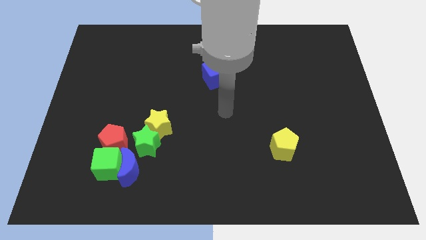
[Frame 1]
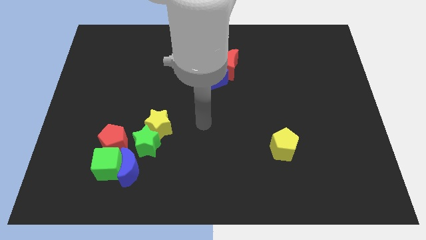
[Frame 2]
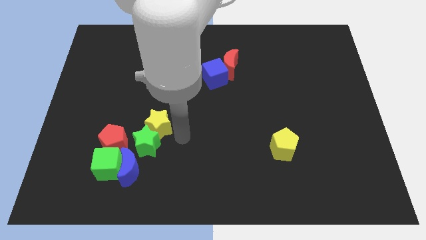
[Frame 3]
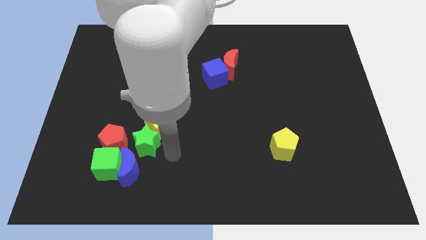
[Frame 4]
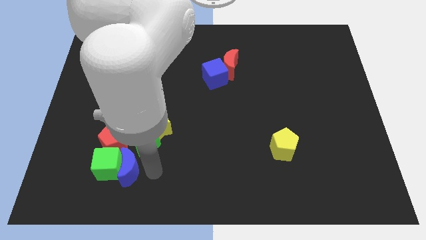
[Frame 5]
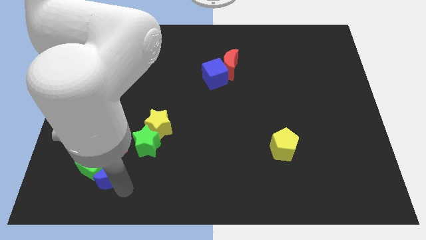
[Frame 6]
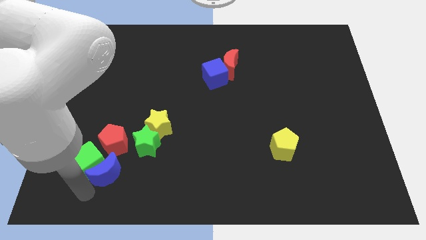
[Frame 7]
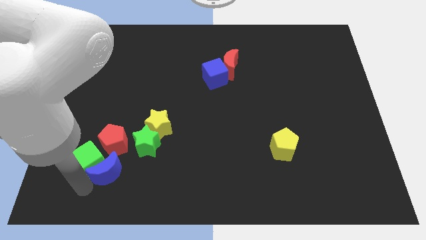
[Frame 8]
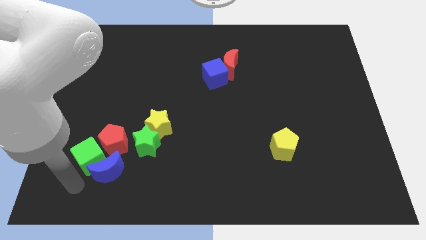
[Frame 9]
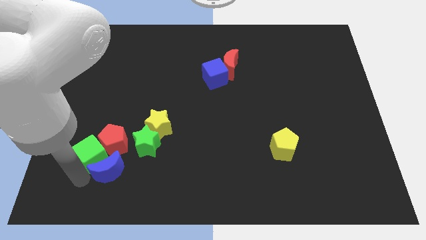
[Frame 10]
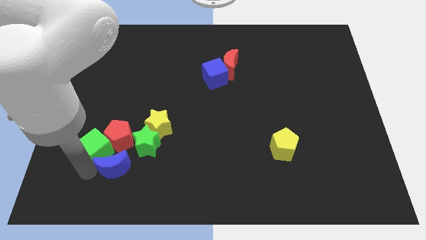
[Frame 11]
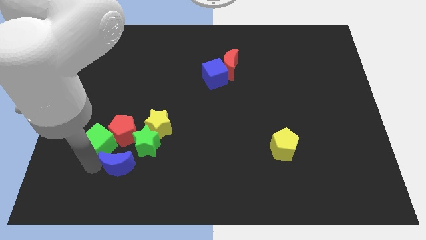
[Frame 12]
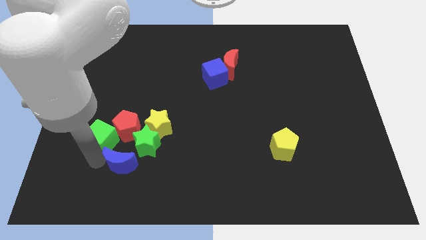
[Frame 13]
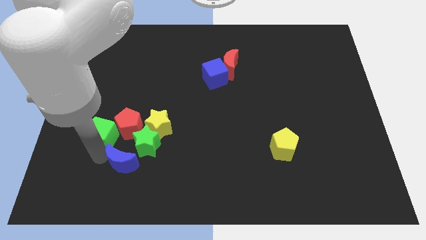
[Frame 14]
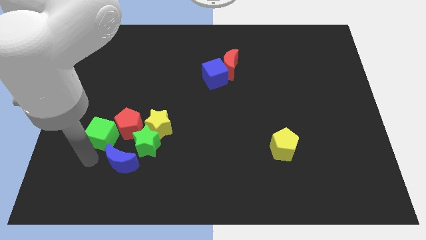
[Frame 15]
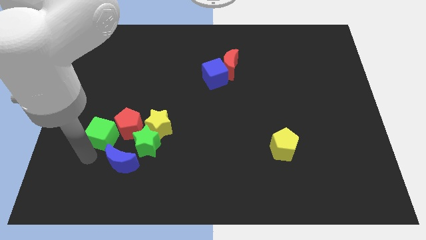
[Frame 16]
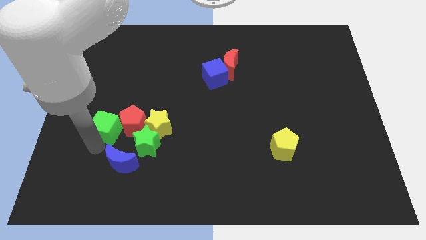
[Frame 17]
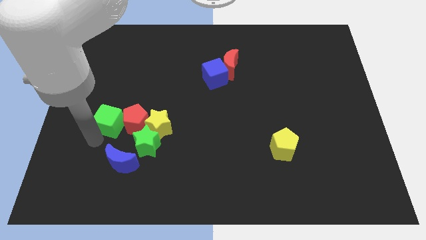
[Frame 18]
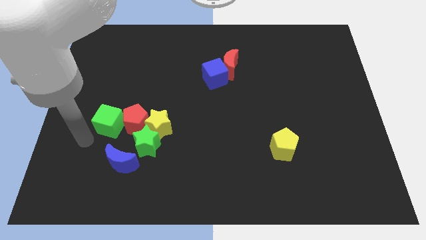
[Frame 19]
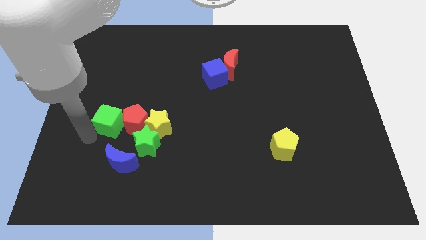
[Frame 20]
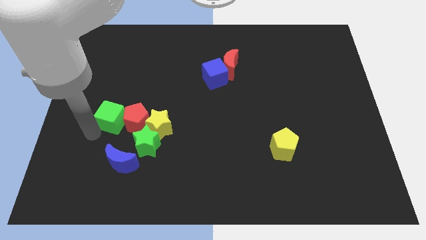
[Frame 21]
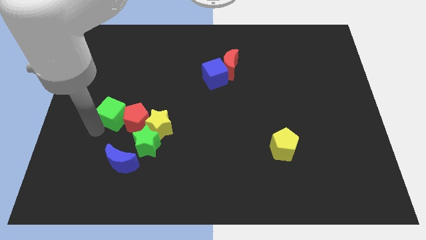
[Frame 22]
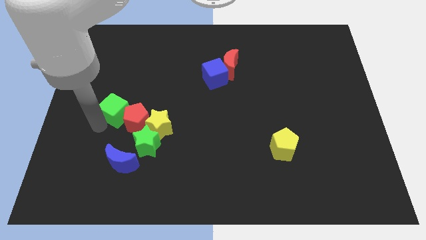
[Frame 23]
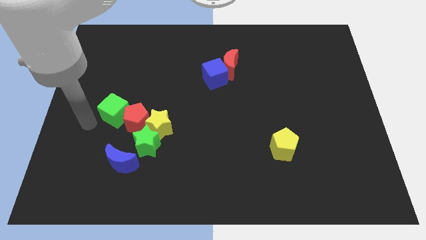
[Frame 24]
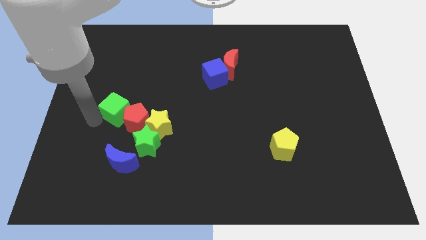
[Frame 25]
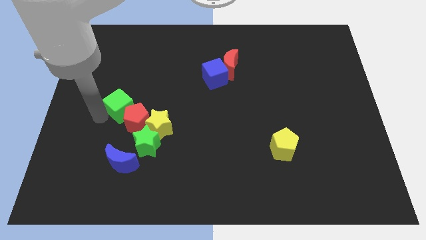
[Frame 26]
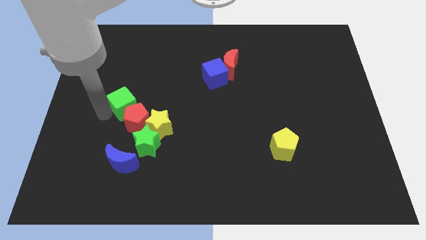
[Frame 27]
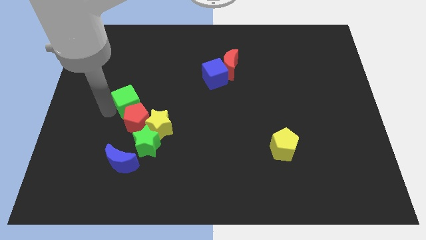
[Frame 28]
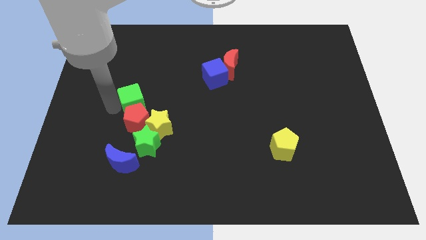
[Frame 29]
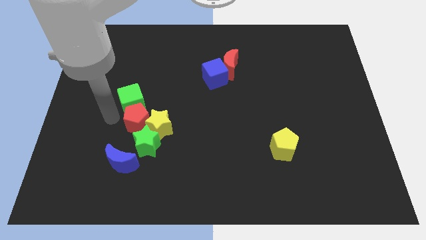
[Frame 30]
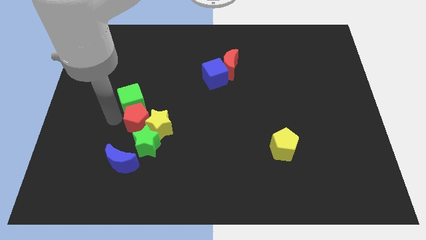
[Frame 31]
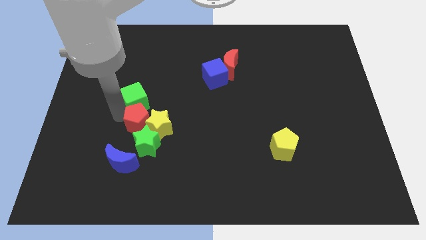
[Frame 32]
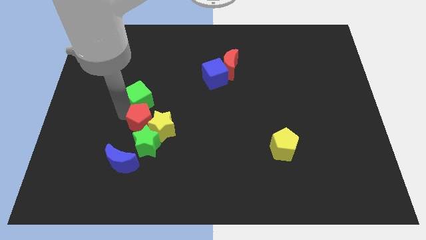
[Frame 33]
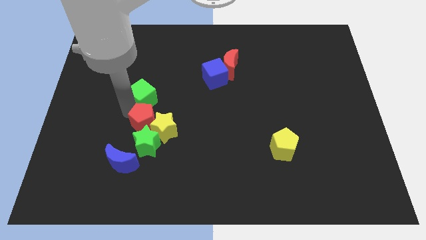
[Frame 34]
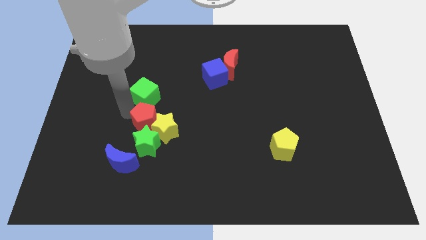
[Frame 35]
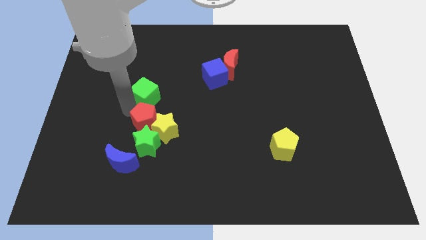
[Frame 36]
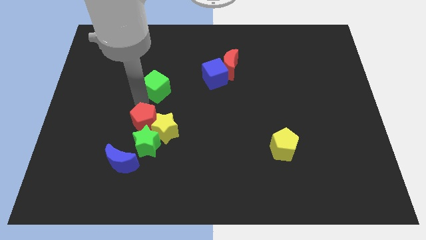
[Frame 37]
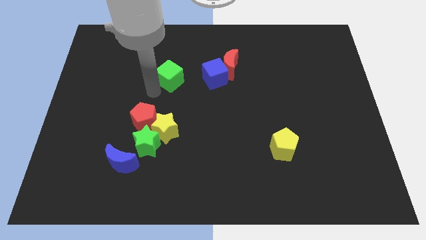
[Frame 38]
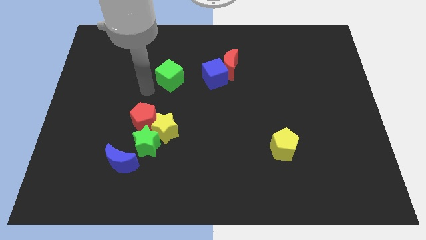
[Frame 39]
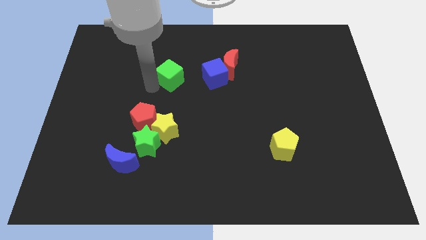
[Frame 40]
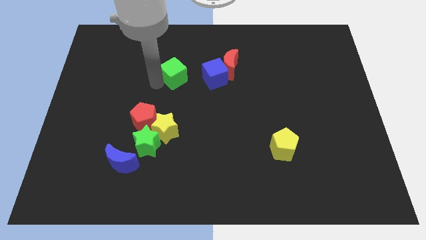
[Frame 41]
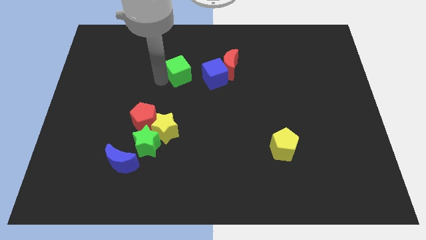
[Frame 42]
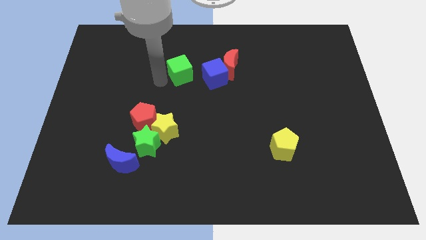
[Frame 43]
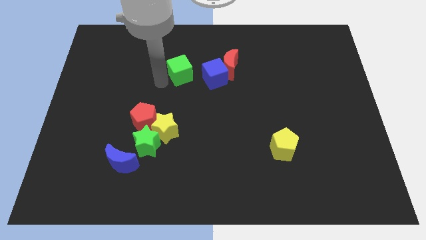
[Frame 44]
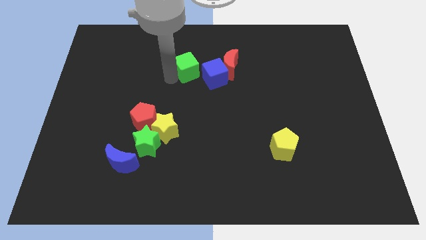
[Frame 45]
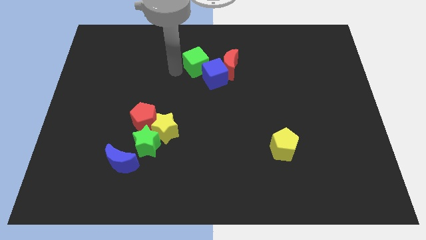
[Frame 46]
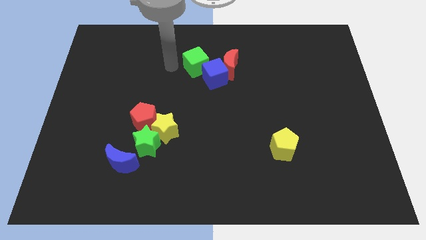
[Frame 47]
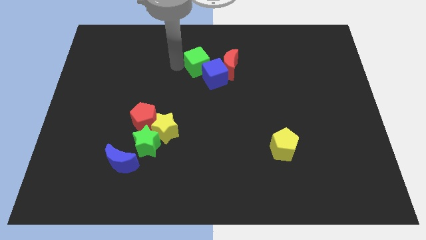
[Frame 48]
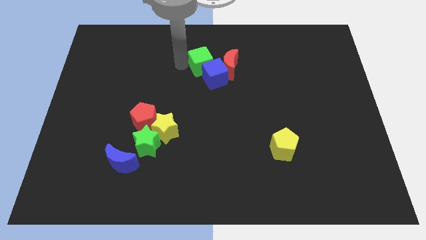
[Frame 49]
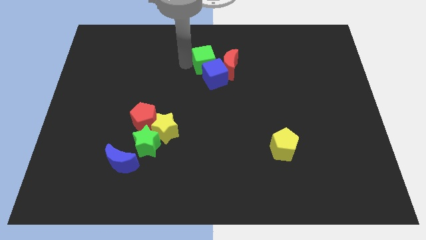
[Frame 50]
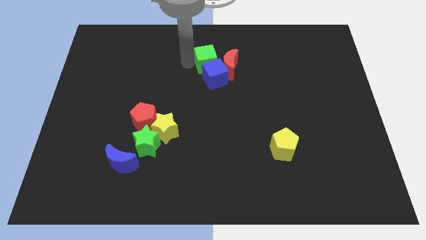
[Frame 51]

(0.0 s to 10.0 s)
push the green cube next to the red moon

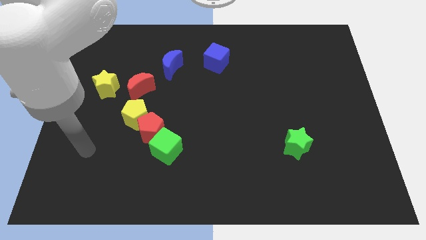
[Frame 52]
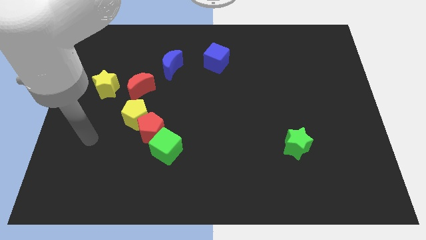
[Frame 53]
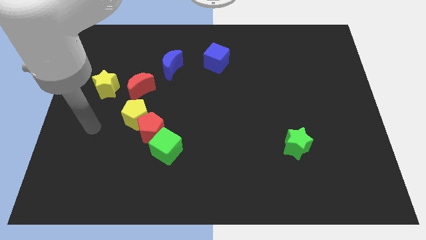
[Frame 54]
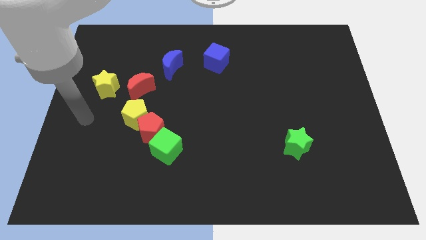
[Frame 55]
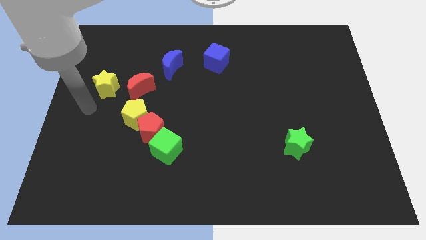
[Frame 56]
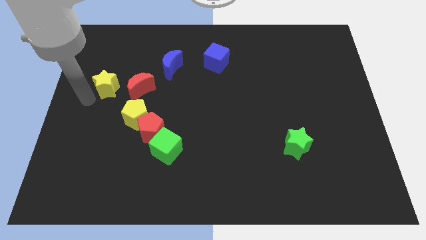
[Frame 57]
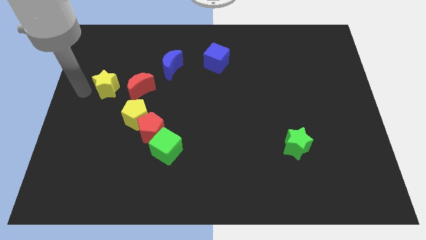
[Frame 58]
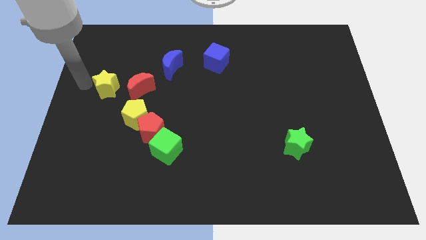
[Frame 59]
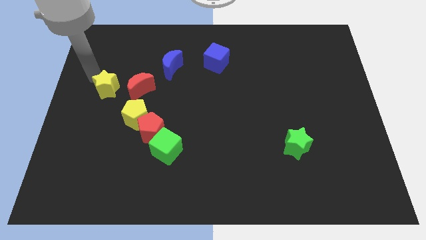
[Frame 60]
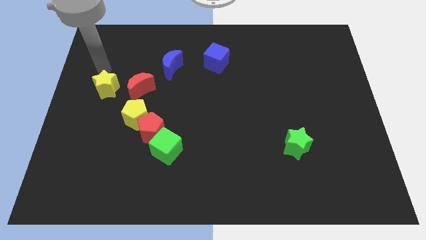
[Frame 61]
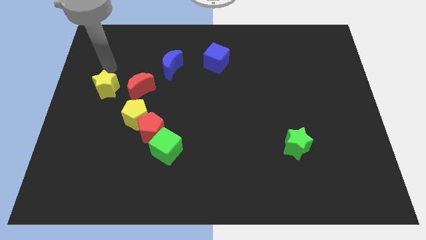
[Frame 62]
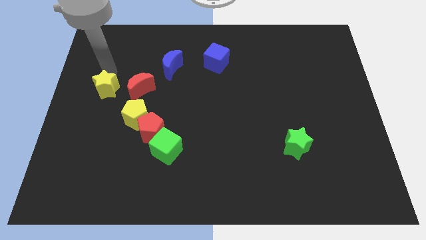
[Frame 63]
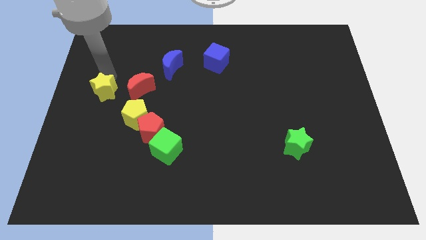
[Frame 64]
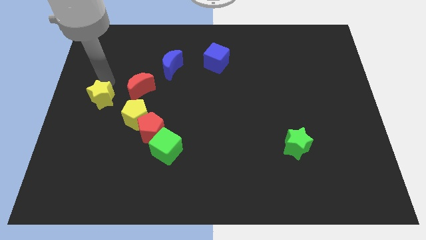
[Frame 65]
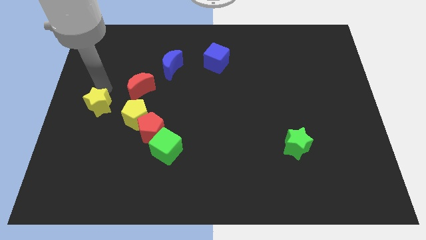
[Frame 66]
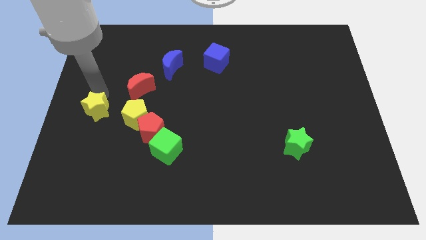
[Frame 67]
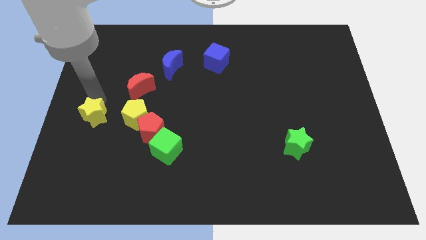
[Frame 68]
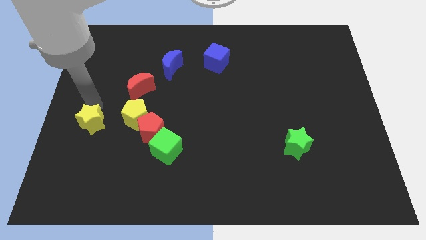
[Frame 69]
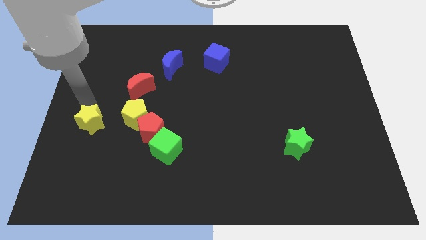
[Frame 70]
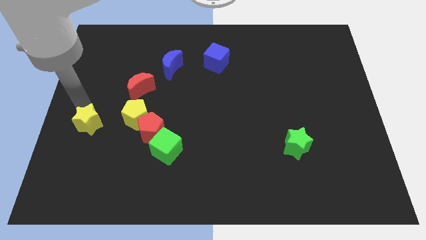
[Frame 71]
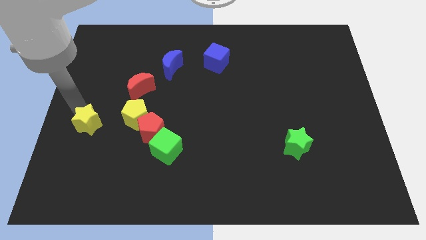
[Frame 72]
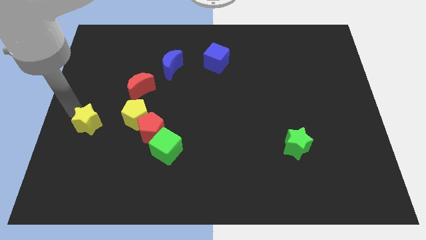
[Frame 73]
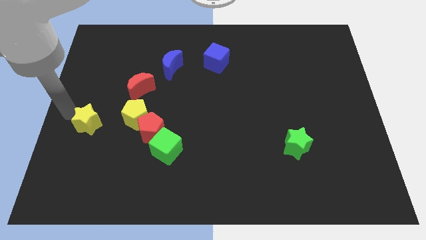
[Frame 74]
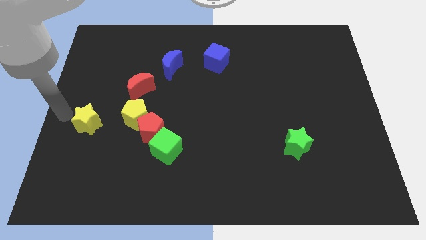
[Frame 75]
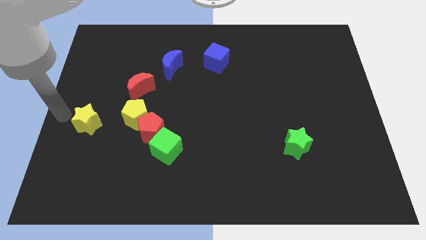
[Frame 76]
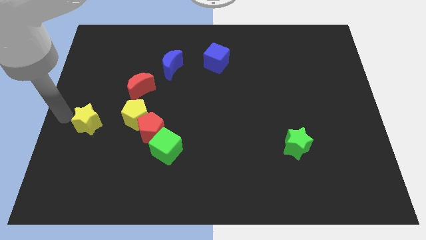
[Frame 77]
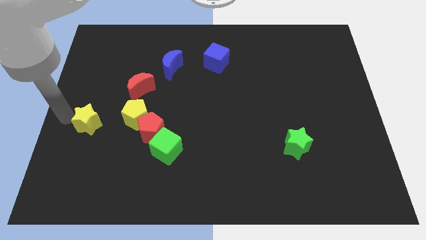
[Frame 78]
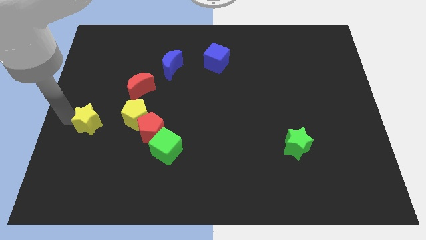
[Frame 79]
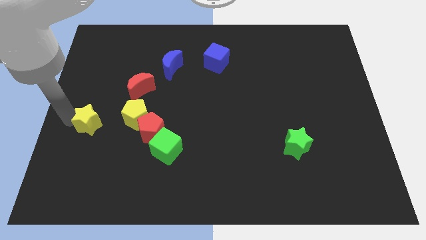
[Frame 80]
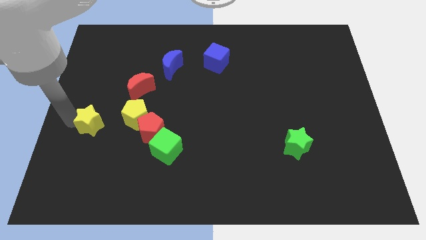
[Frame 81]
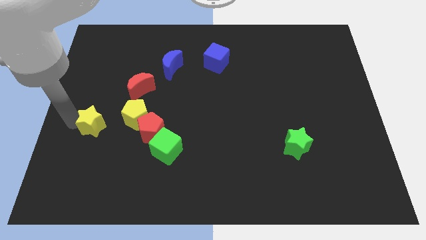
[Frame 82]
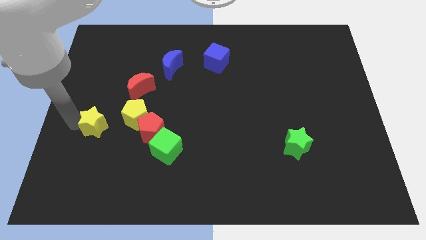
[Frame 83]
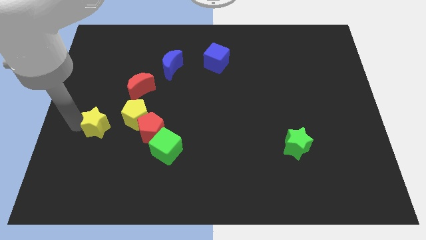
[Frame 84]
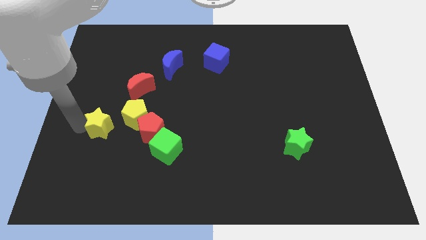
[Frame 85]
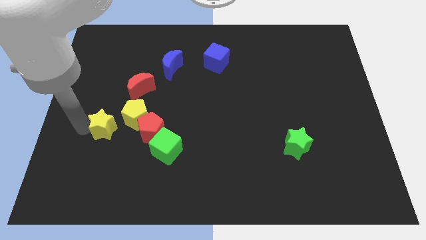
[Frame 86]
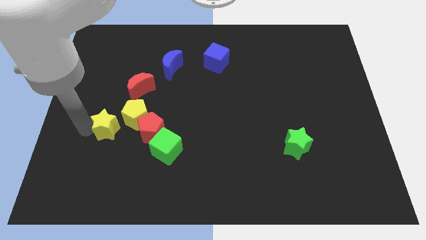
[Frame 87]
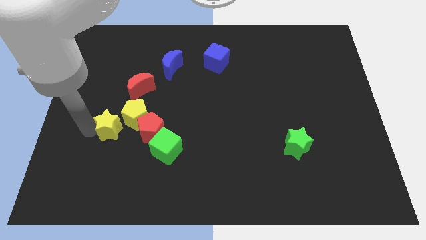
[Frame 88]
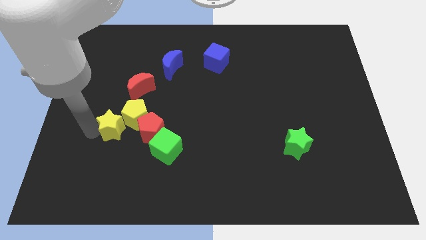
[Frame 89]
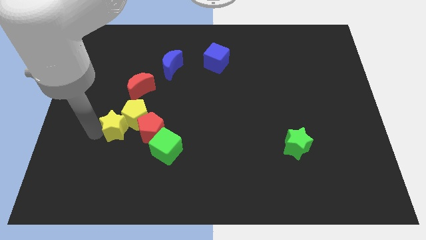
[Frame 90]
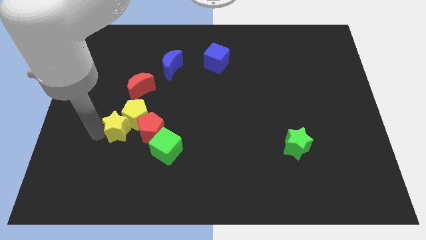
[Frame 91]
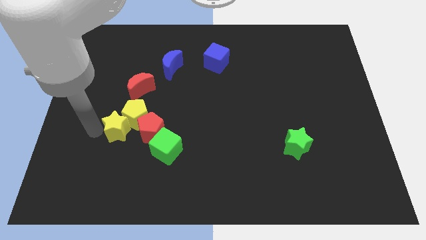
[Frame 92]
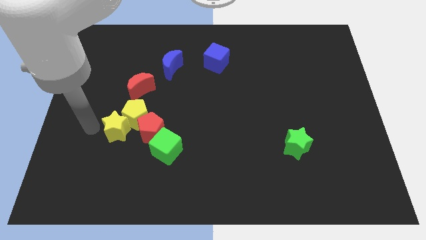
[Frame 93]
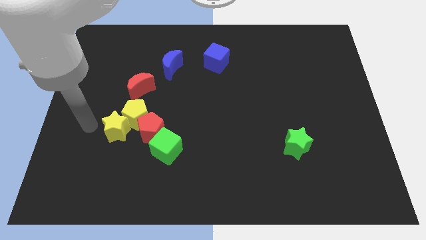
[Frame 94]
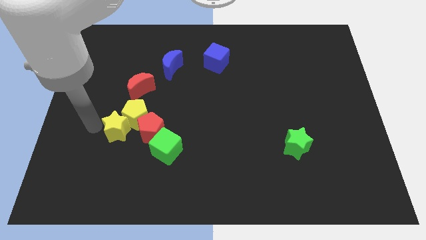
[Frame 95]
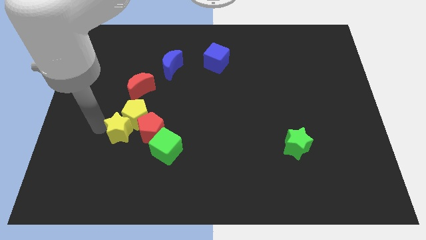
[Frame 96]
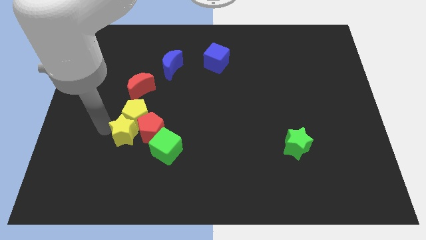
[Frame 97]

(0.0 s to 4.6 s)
move the yellow star towards the red pentagon
